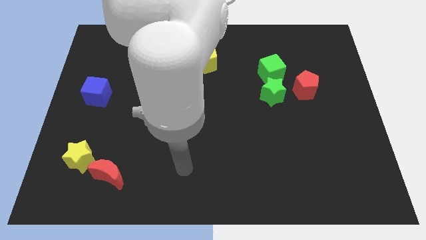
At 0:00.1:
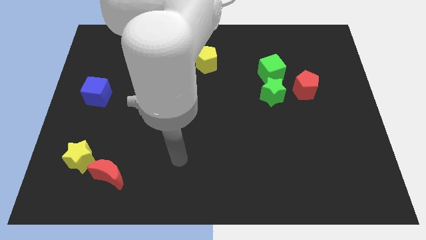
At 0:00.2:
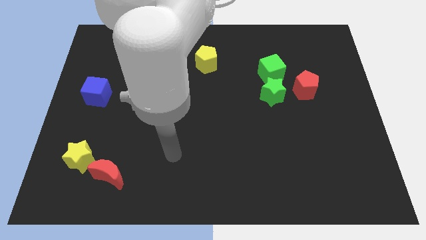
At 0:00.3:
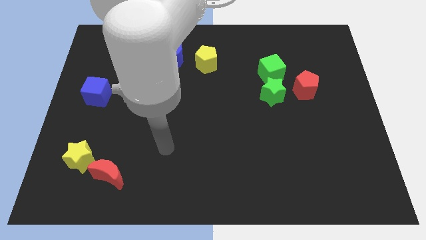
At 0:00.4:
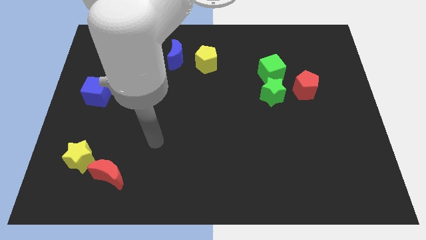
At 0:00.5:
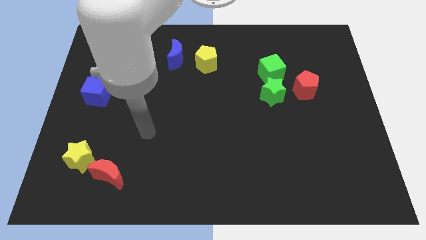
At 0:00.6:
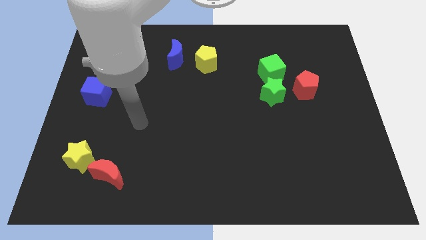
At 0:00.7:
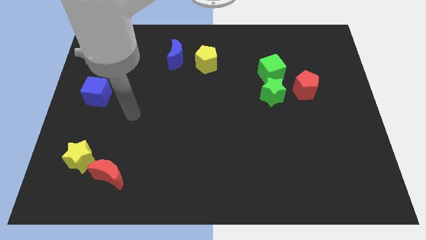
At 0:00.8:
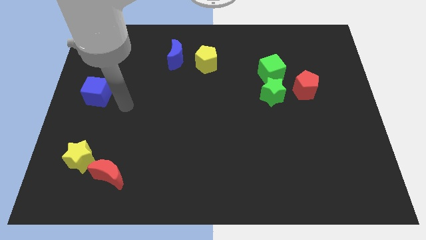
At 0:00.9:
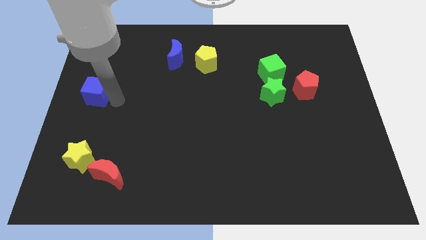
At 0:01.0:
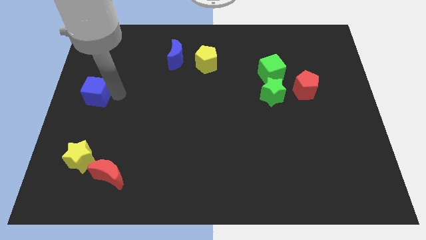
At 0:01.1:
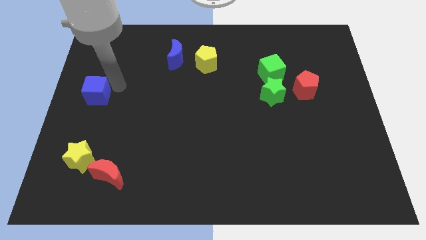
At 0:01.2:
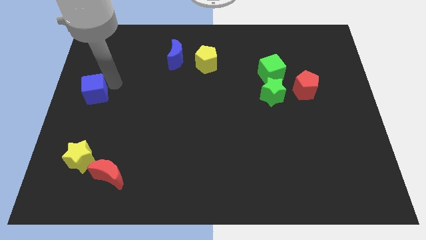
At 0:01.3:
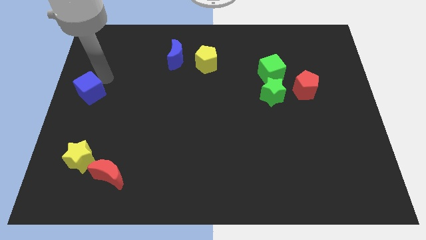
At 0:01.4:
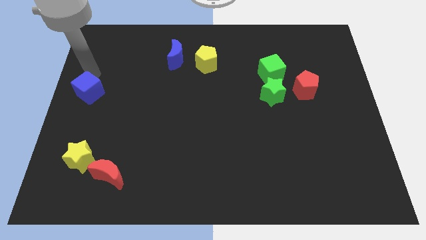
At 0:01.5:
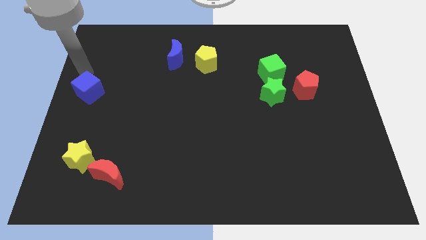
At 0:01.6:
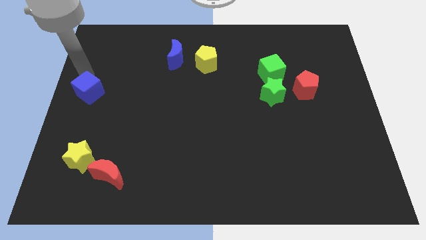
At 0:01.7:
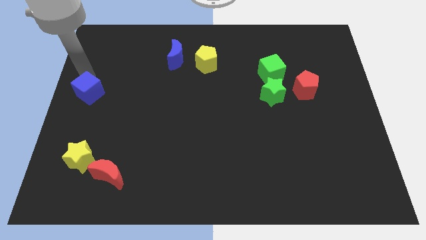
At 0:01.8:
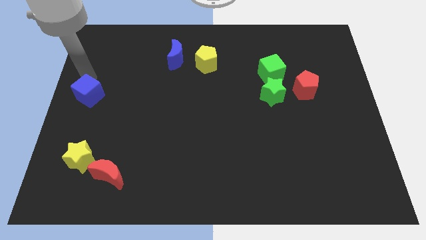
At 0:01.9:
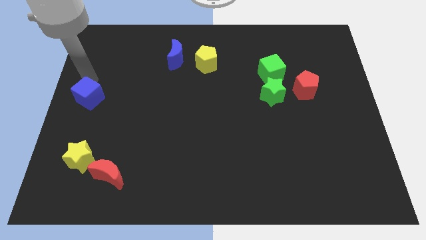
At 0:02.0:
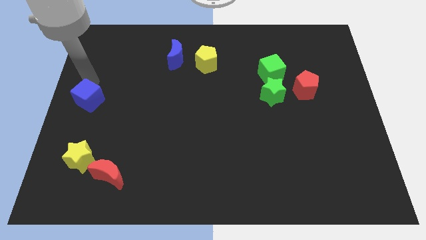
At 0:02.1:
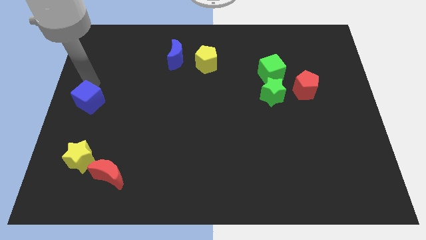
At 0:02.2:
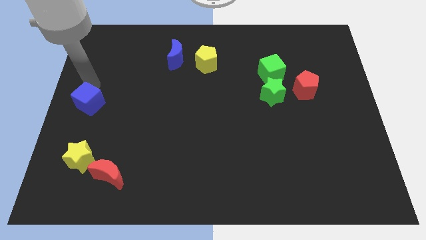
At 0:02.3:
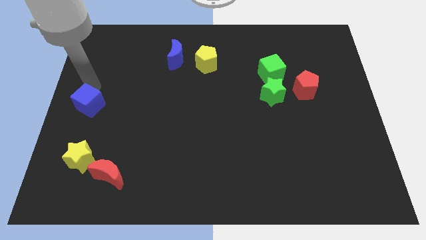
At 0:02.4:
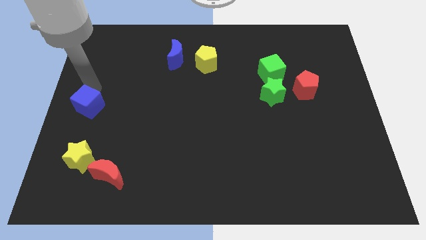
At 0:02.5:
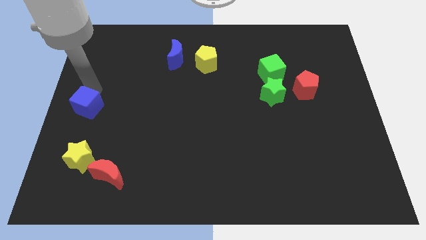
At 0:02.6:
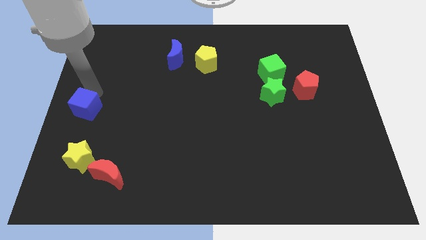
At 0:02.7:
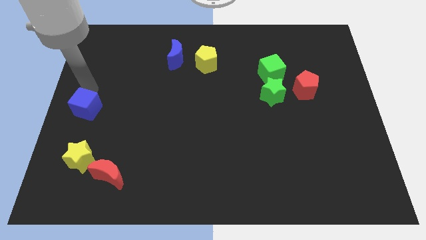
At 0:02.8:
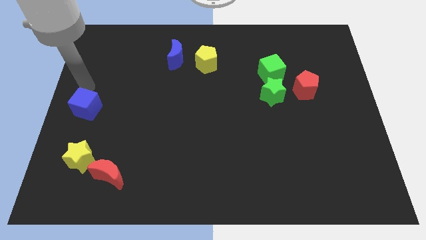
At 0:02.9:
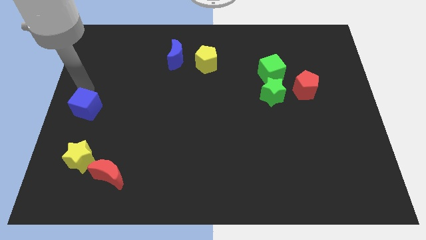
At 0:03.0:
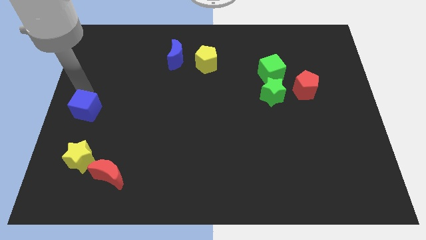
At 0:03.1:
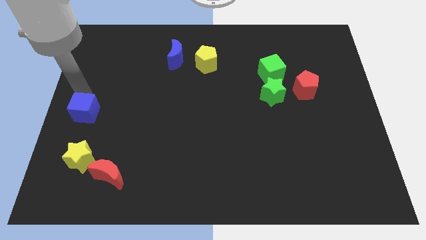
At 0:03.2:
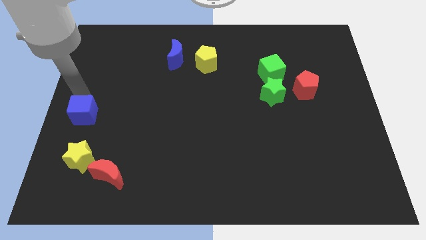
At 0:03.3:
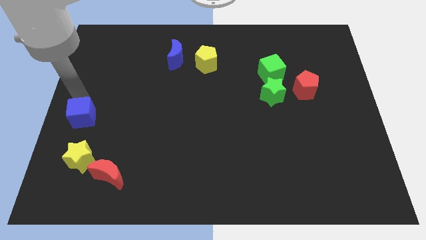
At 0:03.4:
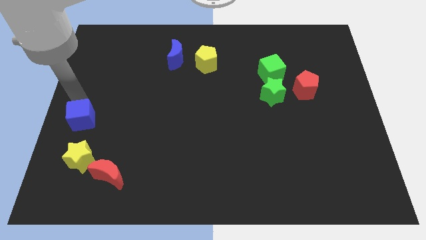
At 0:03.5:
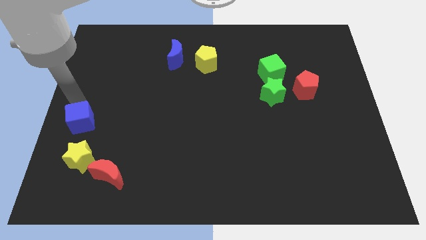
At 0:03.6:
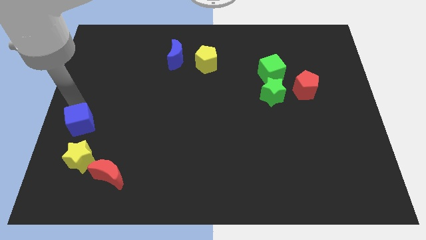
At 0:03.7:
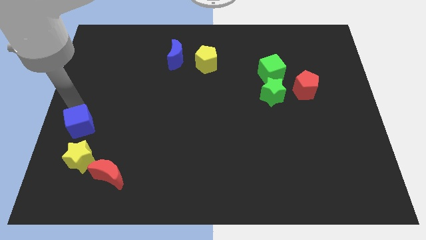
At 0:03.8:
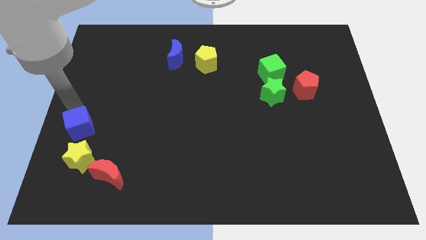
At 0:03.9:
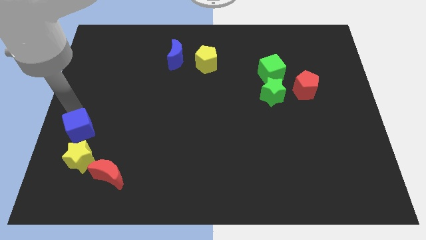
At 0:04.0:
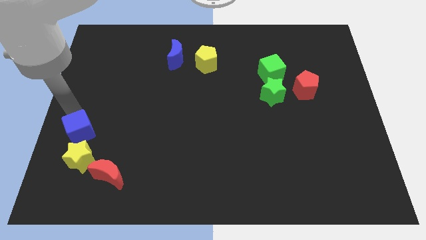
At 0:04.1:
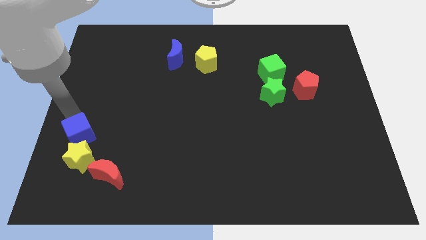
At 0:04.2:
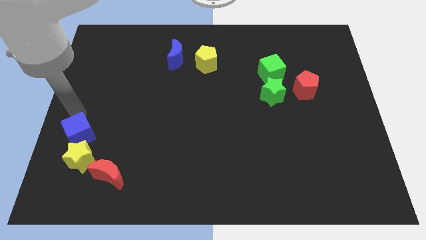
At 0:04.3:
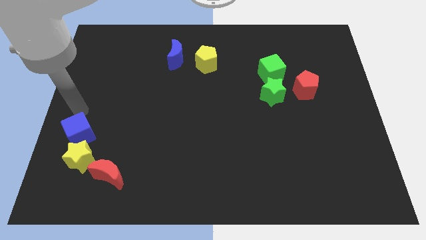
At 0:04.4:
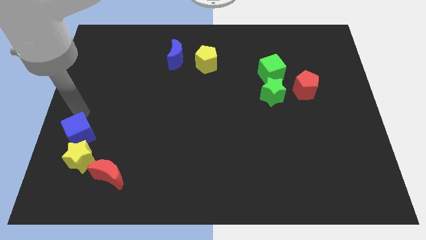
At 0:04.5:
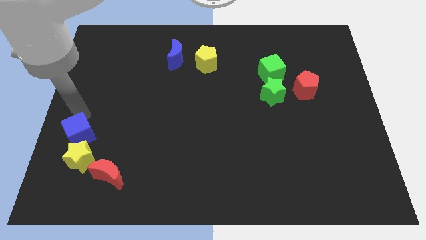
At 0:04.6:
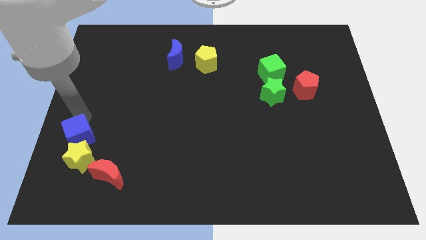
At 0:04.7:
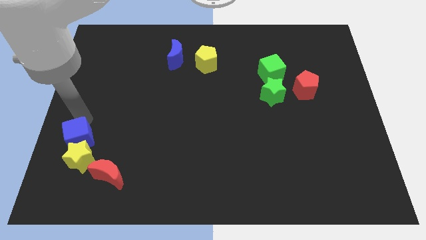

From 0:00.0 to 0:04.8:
move the blue cube next to the yellow star

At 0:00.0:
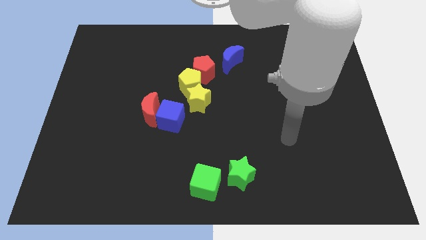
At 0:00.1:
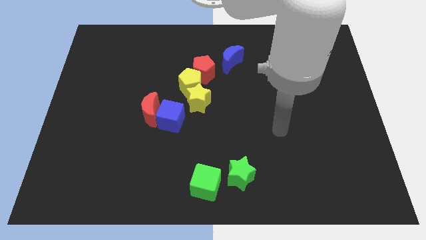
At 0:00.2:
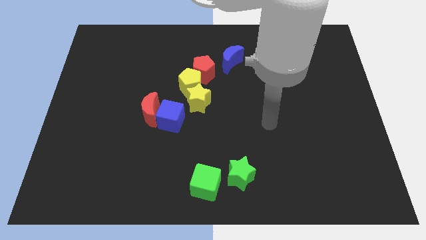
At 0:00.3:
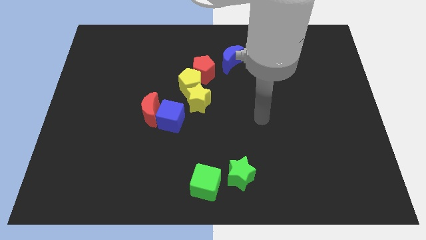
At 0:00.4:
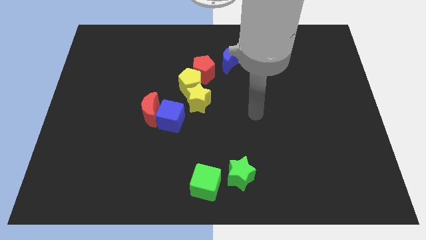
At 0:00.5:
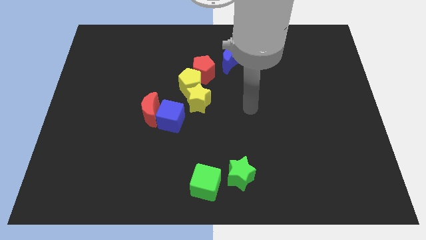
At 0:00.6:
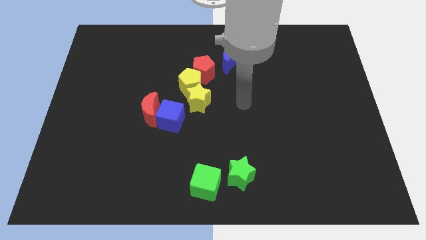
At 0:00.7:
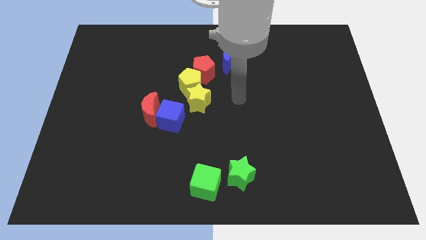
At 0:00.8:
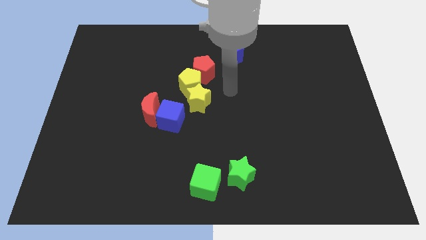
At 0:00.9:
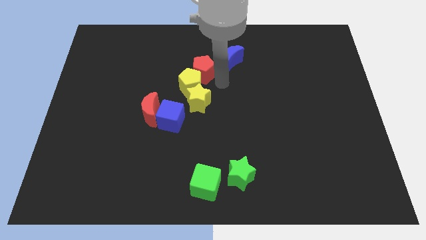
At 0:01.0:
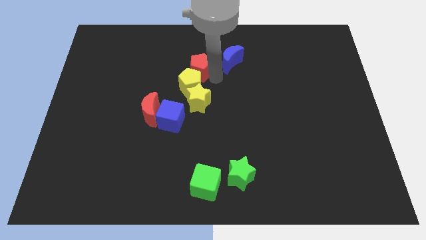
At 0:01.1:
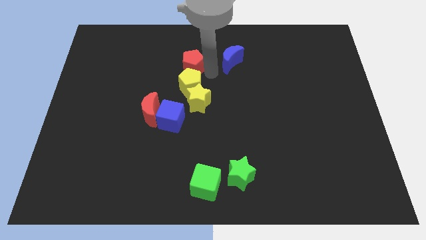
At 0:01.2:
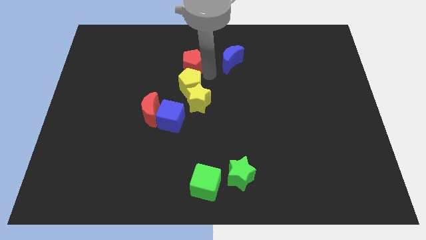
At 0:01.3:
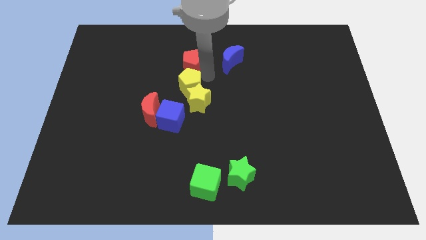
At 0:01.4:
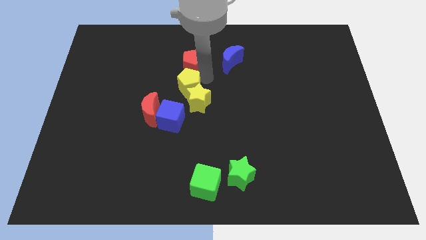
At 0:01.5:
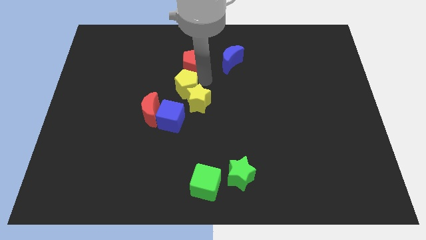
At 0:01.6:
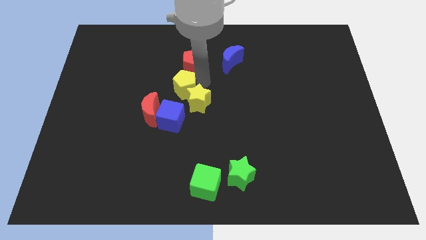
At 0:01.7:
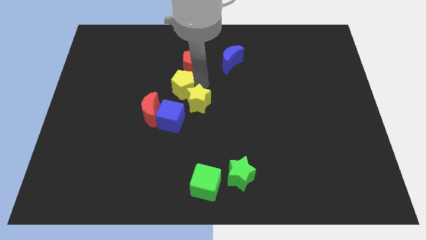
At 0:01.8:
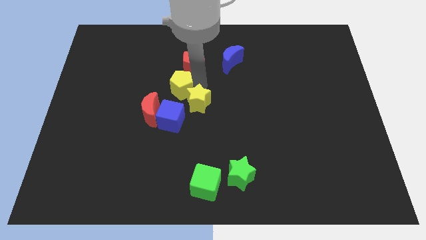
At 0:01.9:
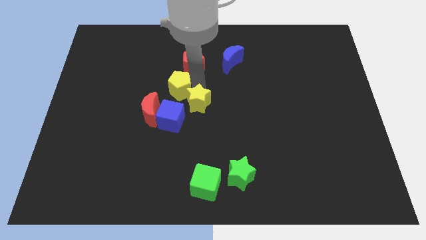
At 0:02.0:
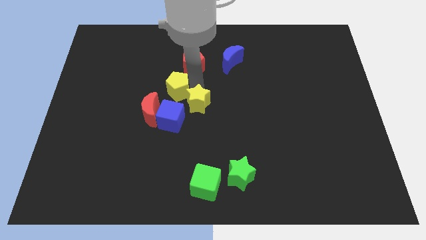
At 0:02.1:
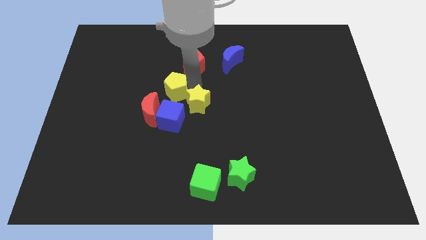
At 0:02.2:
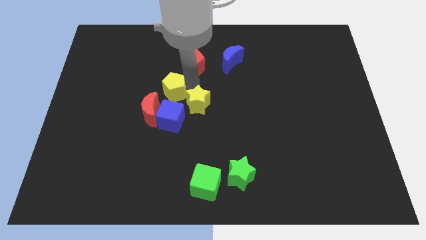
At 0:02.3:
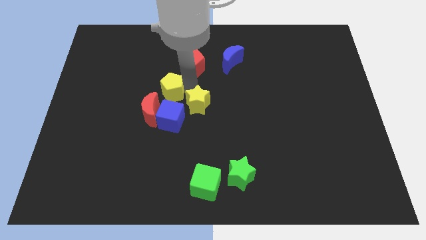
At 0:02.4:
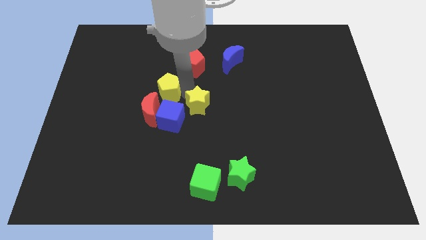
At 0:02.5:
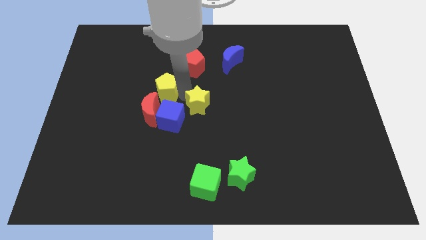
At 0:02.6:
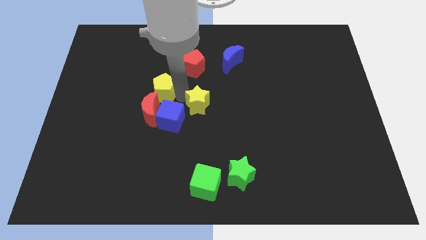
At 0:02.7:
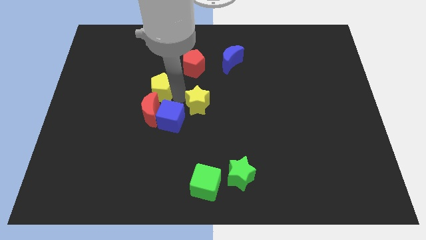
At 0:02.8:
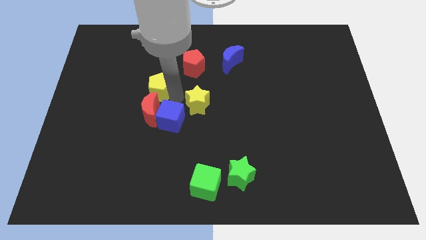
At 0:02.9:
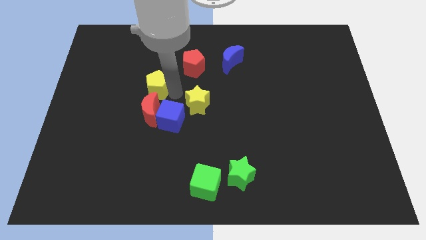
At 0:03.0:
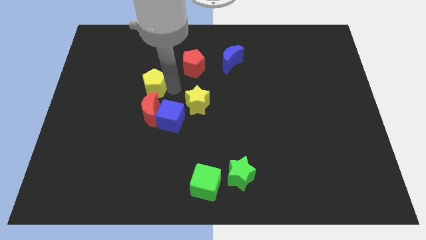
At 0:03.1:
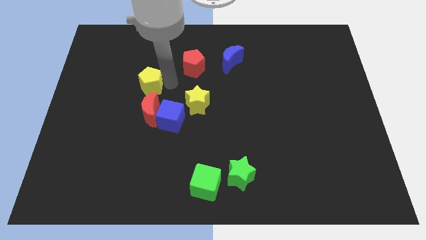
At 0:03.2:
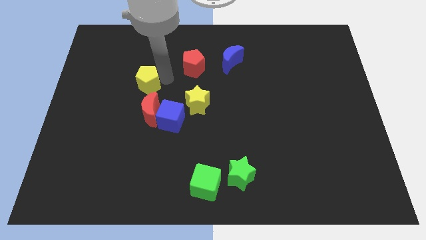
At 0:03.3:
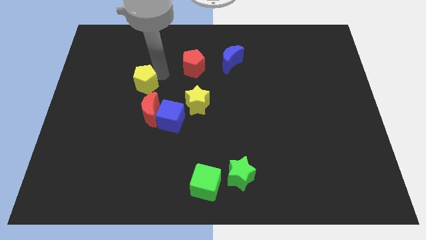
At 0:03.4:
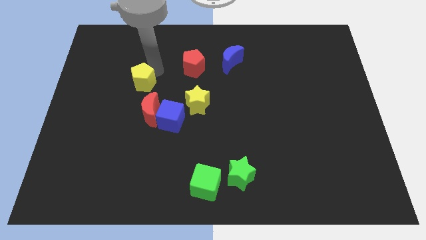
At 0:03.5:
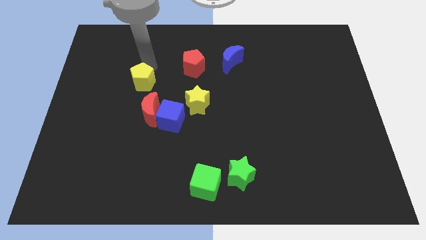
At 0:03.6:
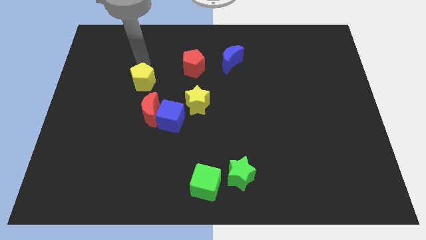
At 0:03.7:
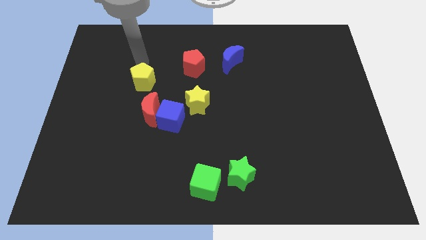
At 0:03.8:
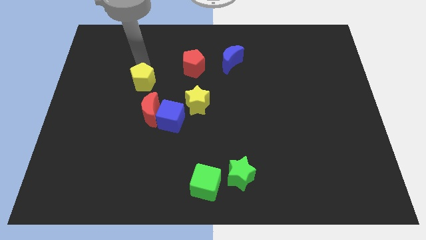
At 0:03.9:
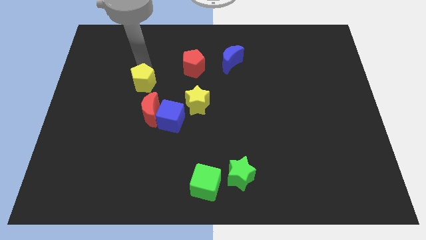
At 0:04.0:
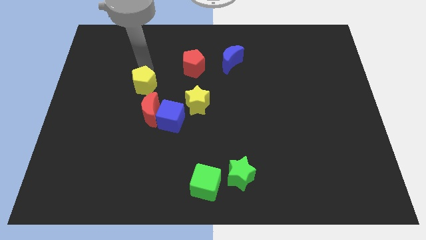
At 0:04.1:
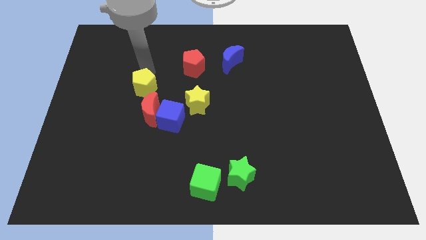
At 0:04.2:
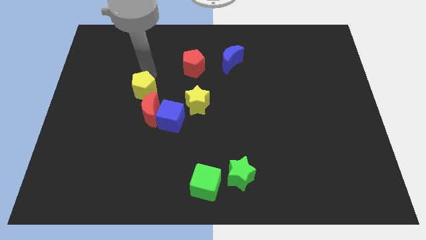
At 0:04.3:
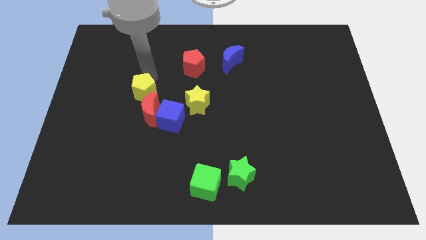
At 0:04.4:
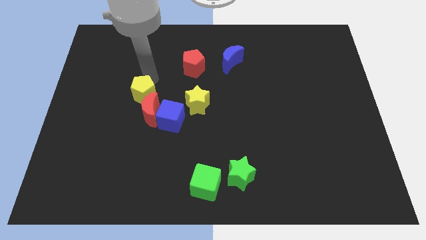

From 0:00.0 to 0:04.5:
move the yellow pentagon to the red moon
